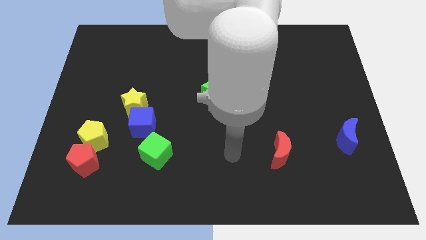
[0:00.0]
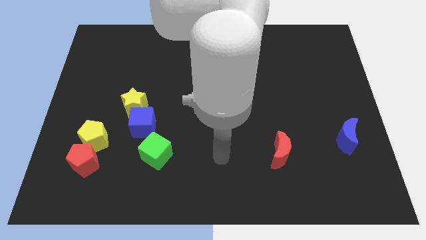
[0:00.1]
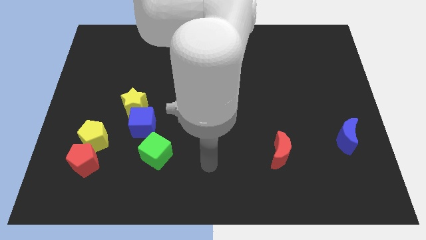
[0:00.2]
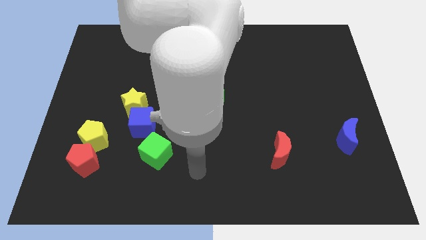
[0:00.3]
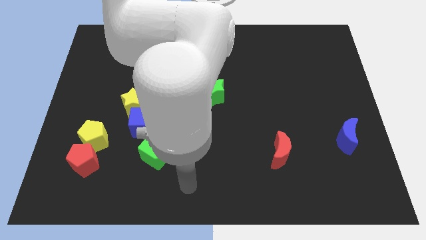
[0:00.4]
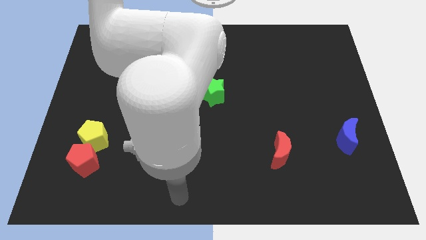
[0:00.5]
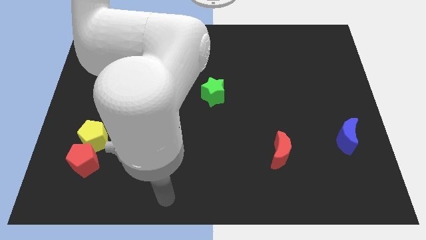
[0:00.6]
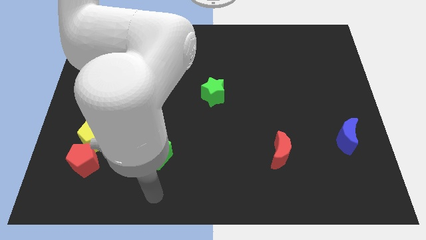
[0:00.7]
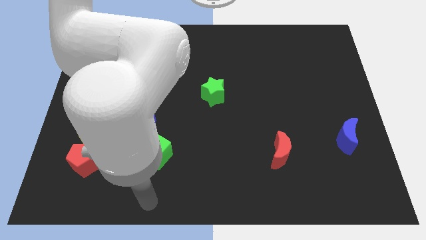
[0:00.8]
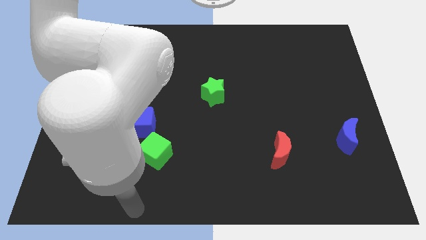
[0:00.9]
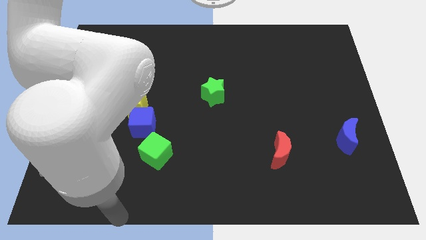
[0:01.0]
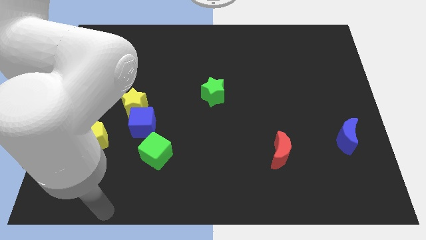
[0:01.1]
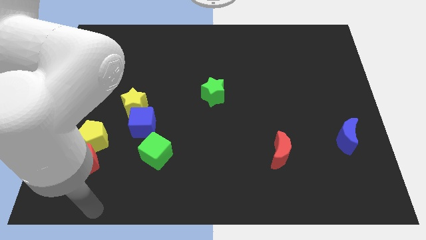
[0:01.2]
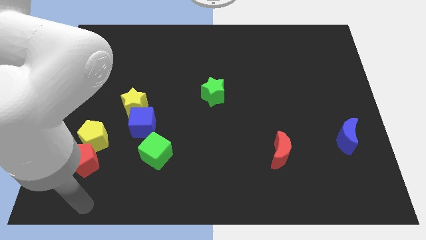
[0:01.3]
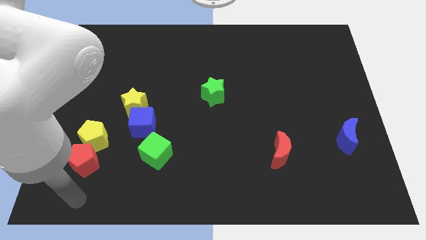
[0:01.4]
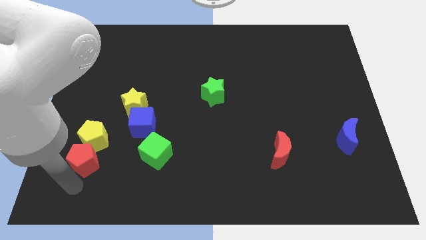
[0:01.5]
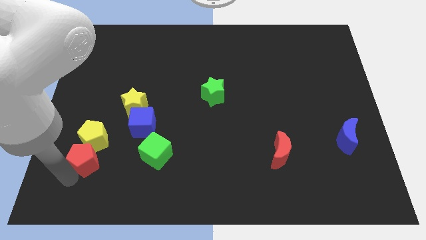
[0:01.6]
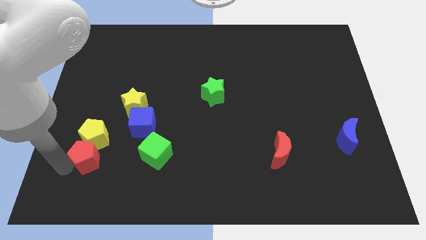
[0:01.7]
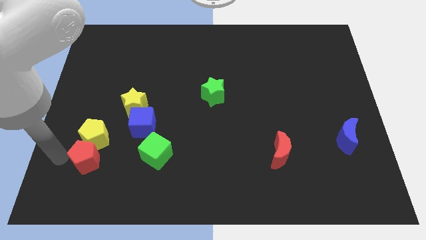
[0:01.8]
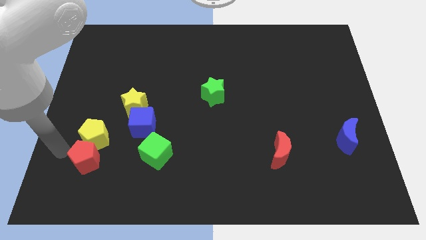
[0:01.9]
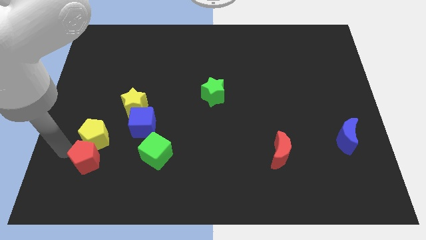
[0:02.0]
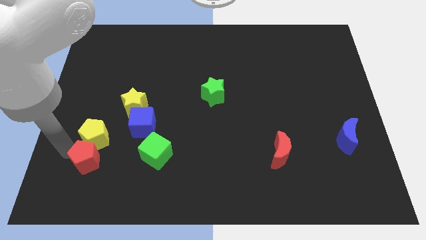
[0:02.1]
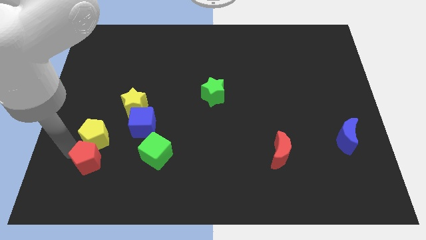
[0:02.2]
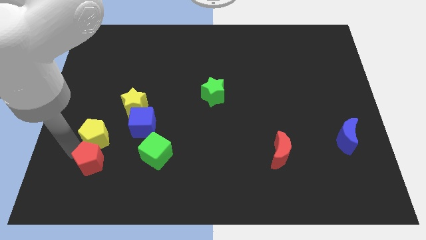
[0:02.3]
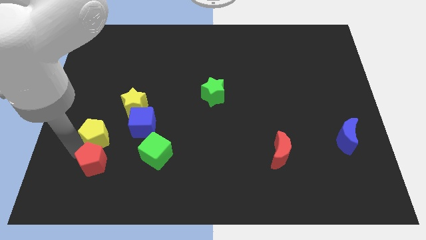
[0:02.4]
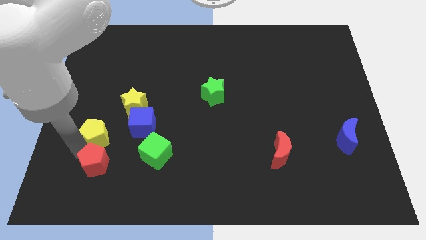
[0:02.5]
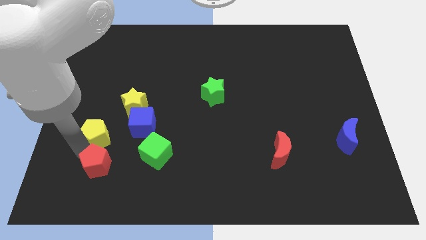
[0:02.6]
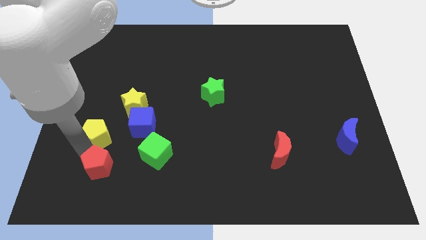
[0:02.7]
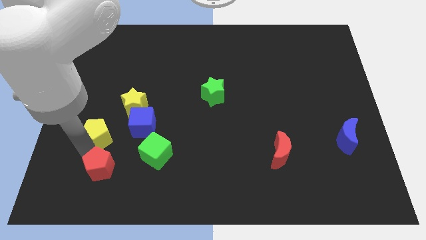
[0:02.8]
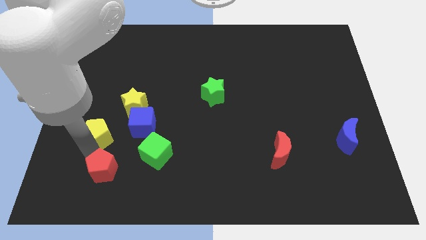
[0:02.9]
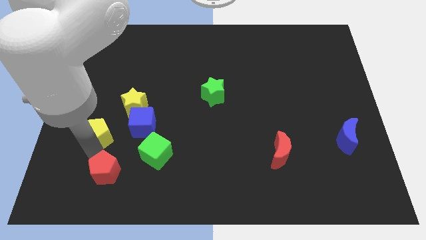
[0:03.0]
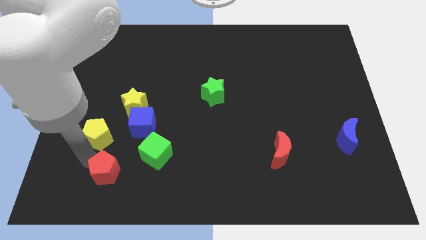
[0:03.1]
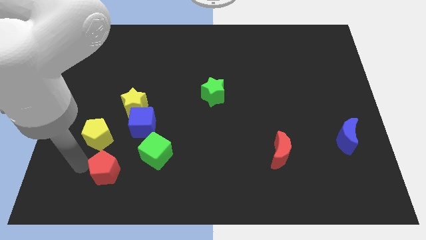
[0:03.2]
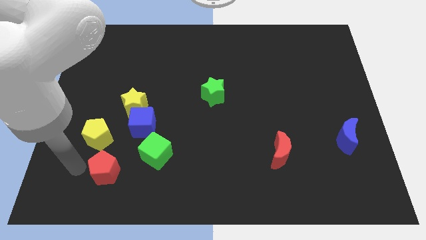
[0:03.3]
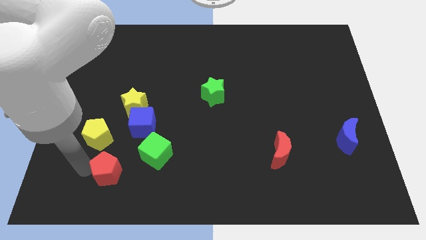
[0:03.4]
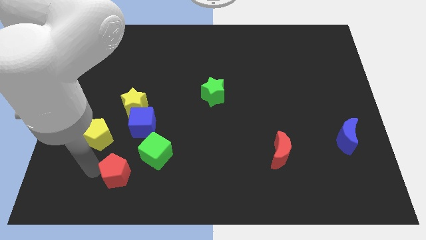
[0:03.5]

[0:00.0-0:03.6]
push the red pentagon slightly right

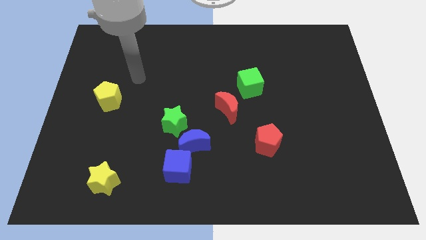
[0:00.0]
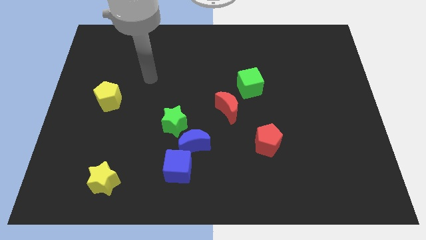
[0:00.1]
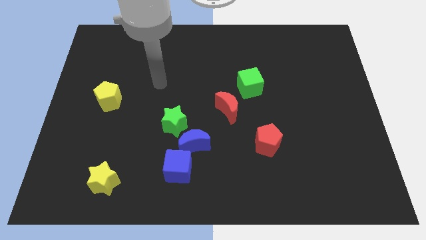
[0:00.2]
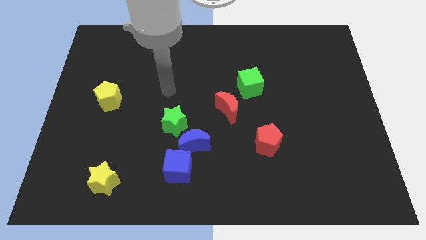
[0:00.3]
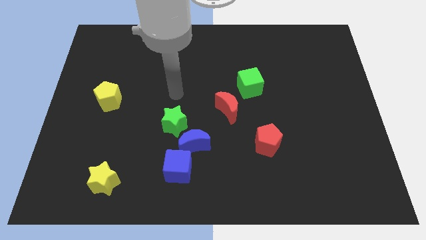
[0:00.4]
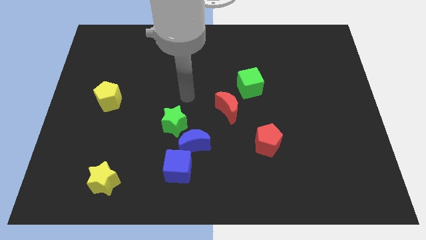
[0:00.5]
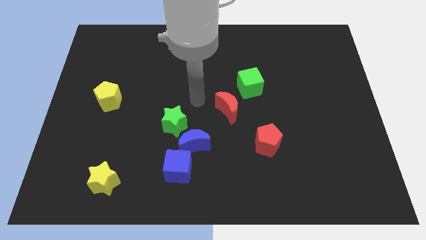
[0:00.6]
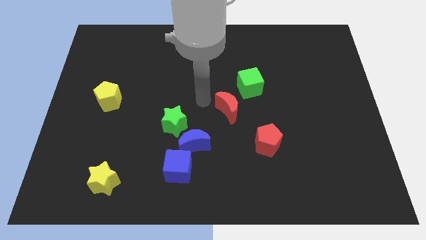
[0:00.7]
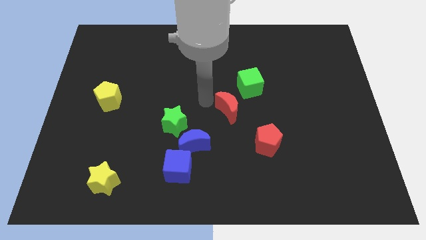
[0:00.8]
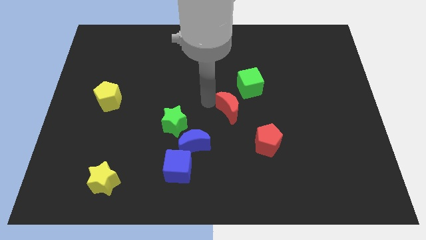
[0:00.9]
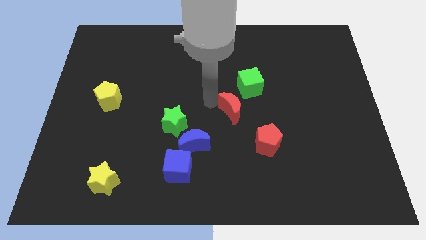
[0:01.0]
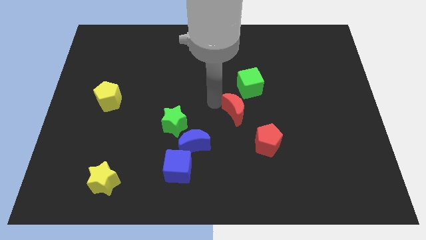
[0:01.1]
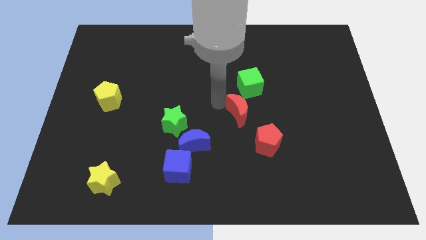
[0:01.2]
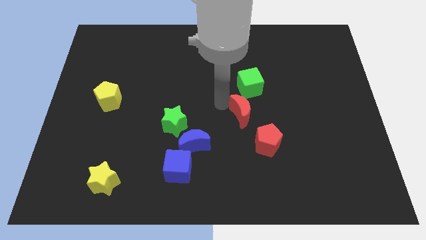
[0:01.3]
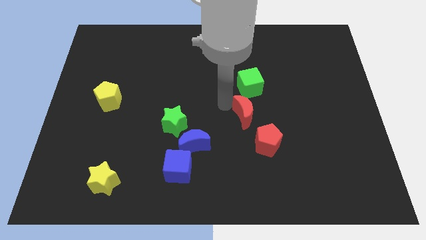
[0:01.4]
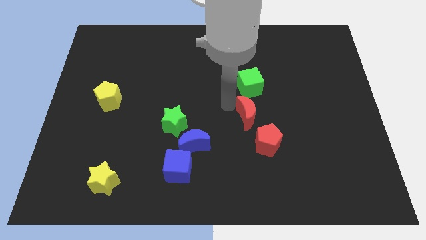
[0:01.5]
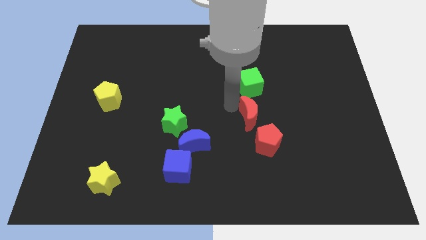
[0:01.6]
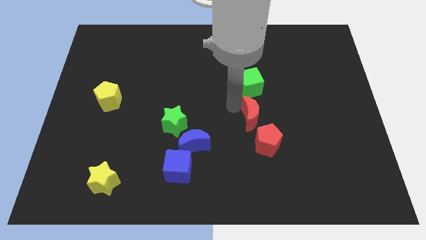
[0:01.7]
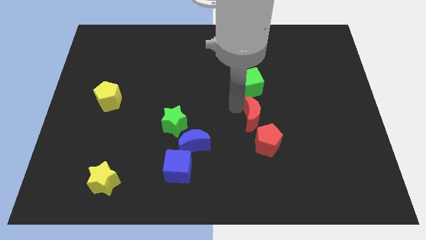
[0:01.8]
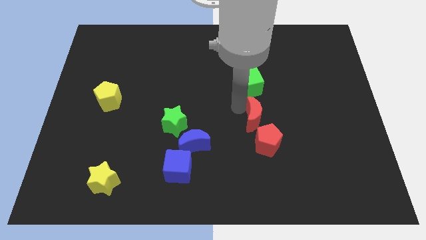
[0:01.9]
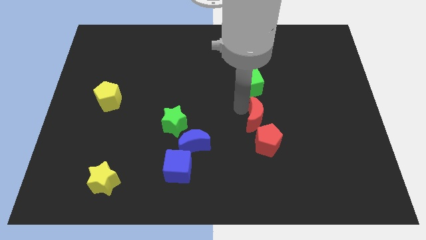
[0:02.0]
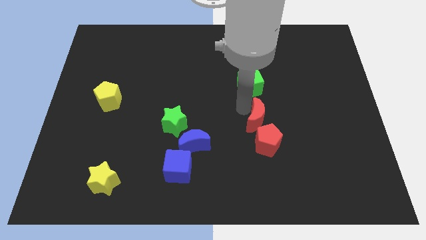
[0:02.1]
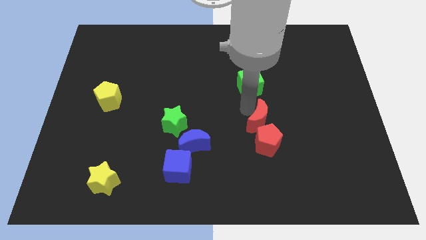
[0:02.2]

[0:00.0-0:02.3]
push the red moon a little bit diagonally down and to the right

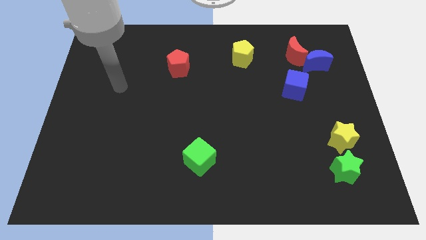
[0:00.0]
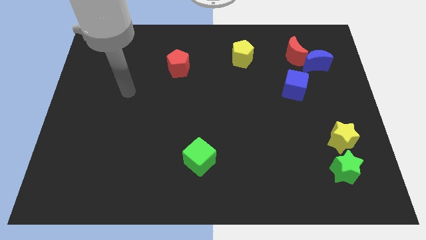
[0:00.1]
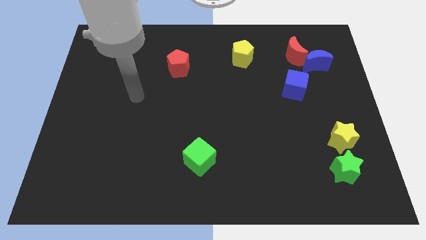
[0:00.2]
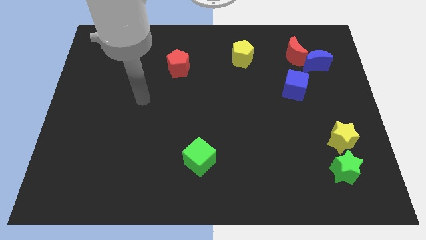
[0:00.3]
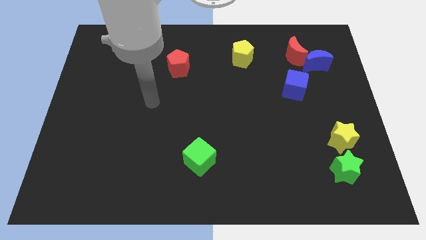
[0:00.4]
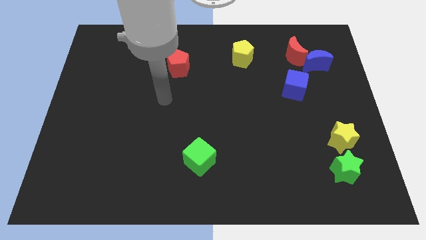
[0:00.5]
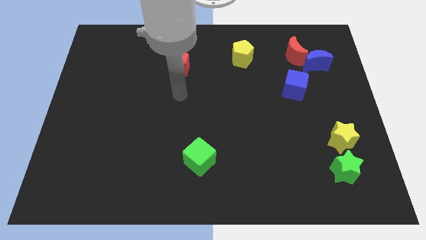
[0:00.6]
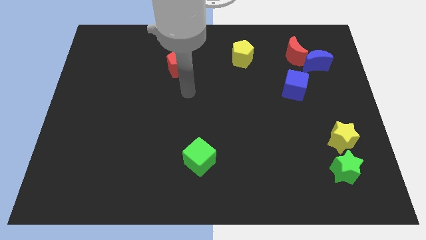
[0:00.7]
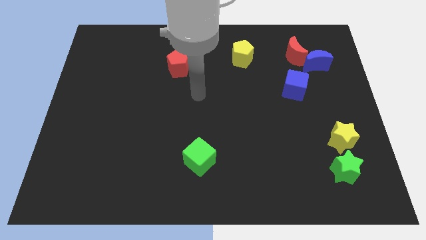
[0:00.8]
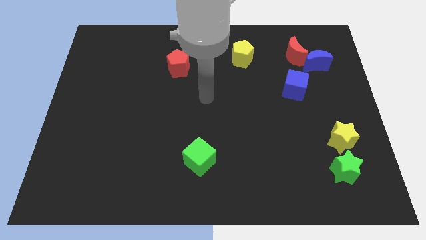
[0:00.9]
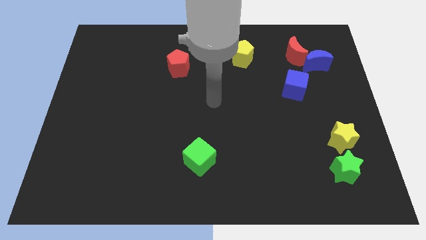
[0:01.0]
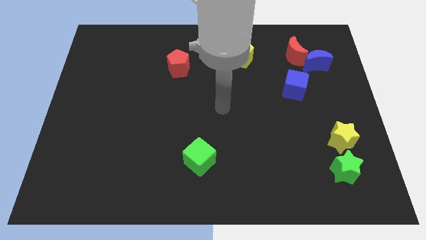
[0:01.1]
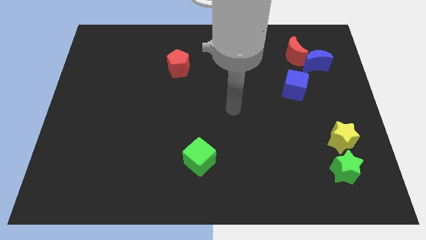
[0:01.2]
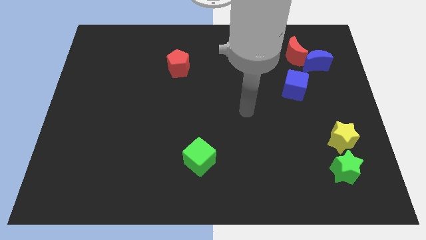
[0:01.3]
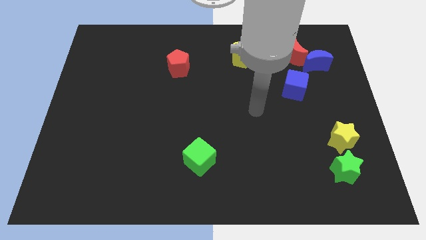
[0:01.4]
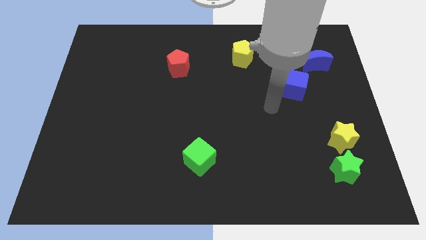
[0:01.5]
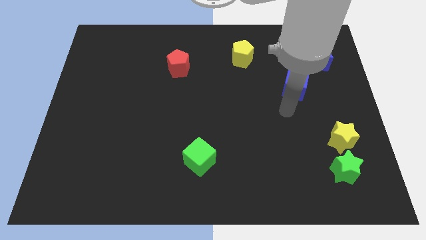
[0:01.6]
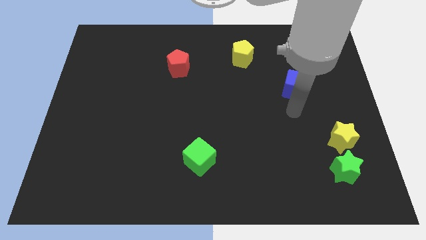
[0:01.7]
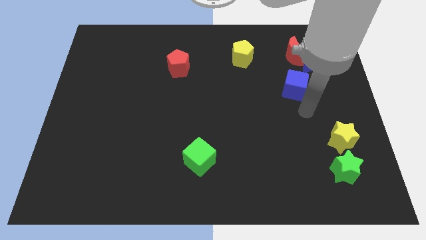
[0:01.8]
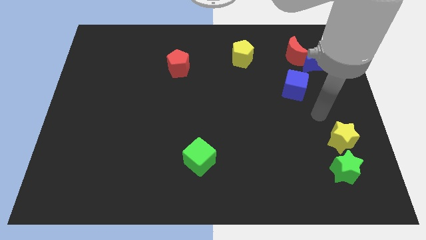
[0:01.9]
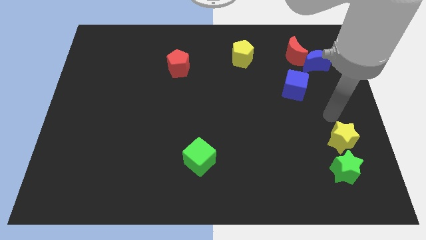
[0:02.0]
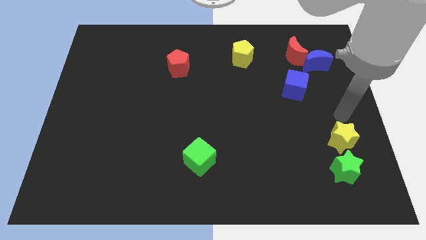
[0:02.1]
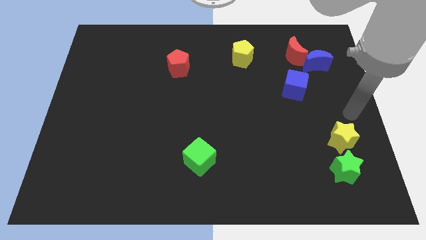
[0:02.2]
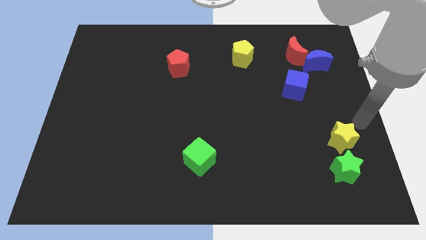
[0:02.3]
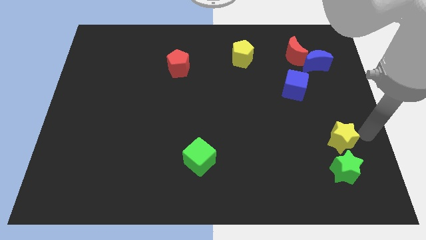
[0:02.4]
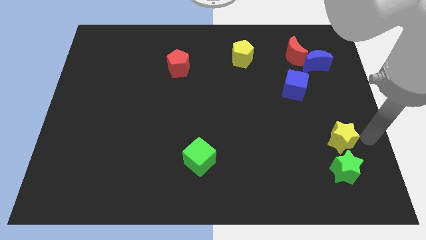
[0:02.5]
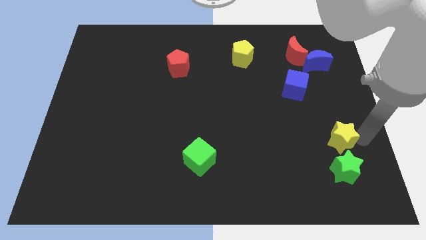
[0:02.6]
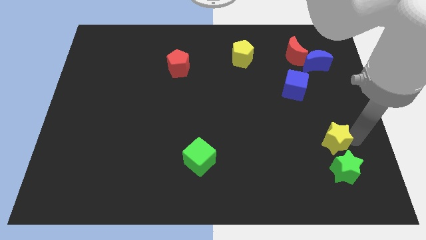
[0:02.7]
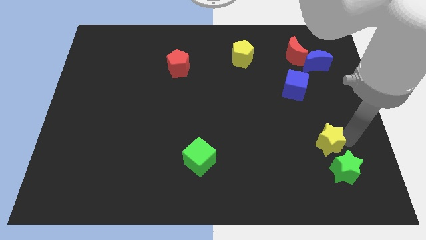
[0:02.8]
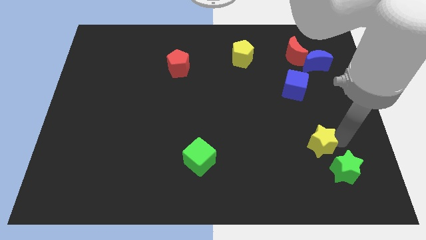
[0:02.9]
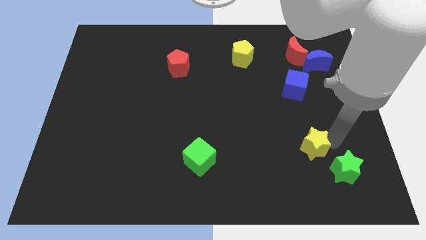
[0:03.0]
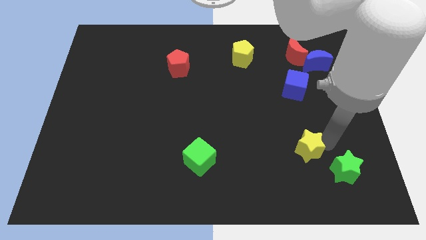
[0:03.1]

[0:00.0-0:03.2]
slide the yellow star to the left a bit
